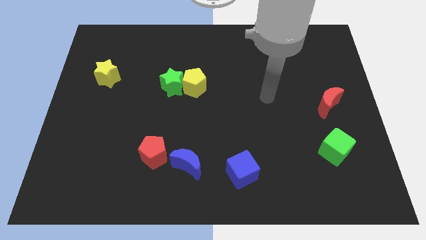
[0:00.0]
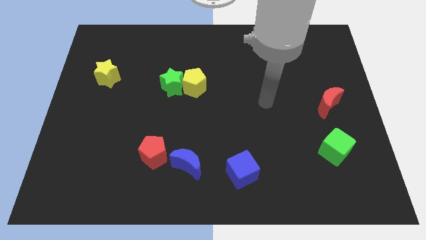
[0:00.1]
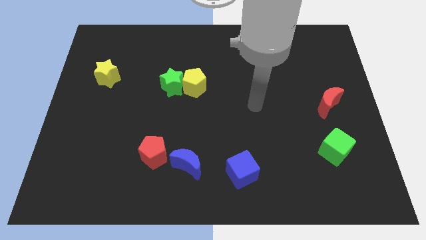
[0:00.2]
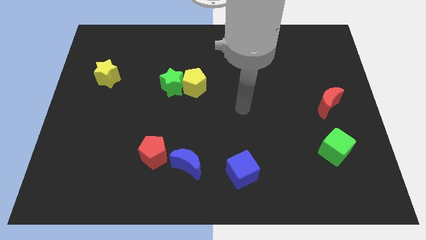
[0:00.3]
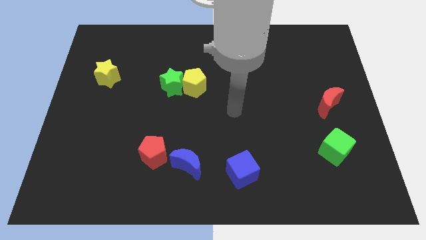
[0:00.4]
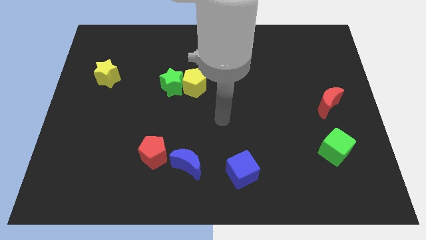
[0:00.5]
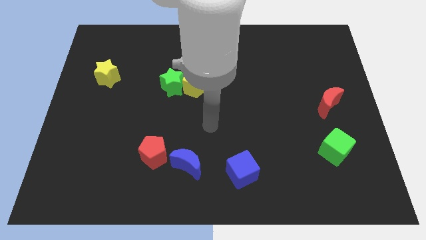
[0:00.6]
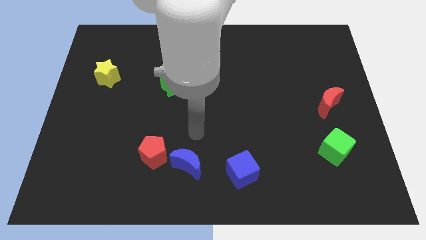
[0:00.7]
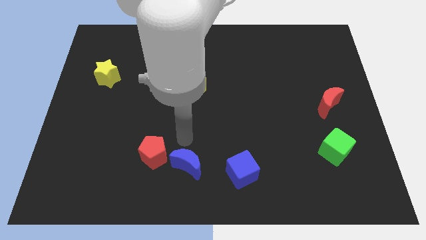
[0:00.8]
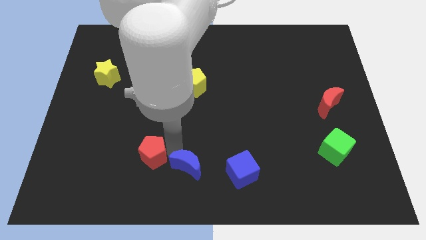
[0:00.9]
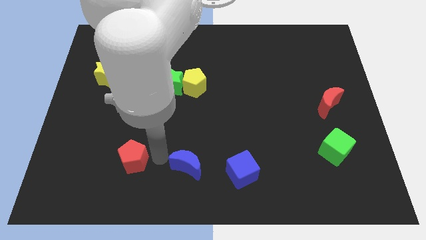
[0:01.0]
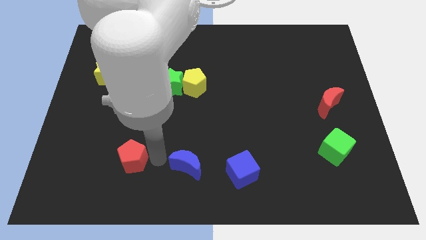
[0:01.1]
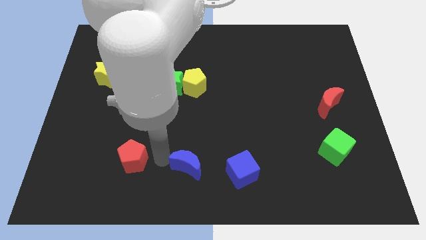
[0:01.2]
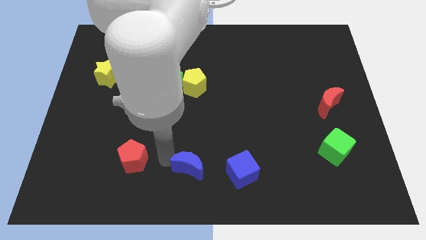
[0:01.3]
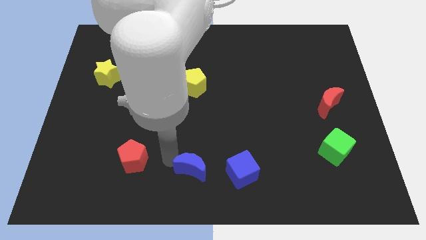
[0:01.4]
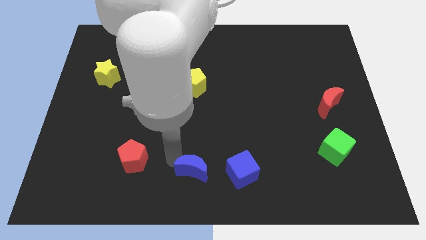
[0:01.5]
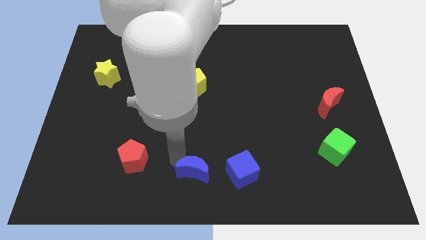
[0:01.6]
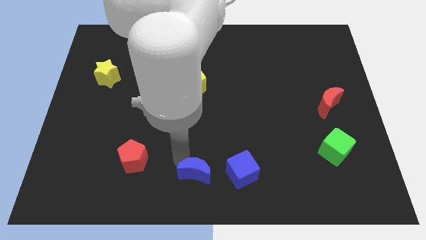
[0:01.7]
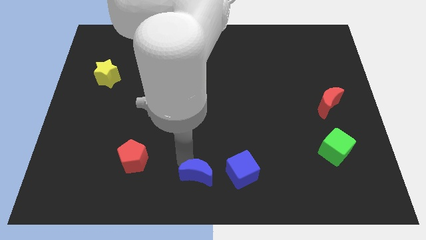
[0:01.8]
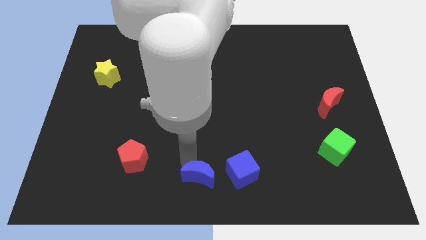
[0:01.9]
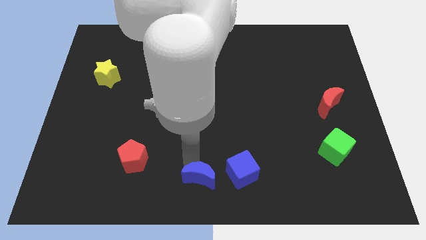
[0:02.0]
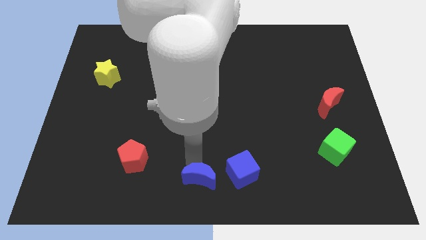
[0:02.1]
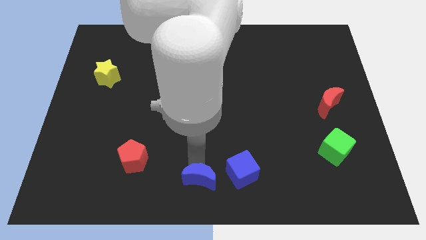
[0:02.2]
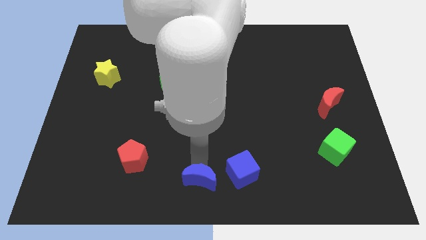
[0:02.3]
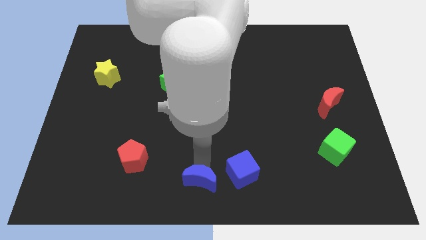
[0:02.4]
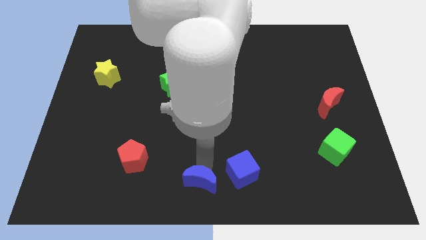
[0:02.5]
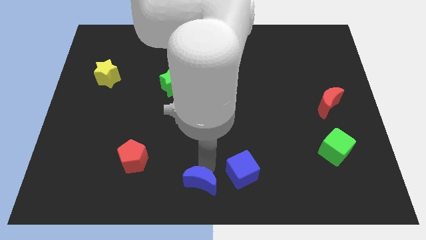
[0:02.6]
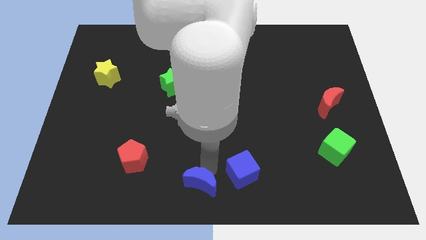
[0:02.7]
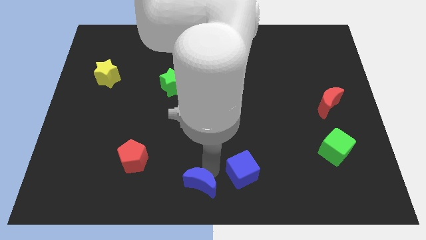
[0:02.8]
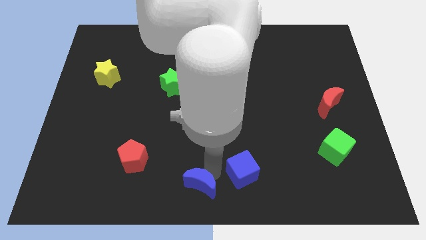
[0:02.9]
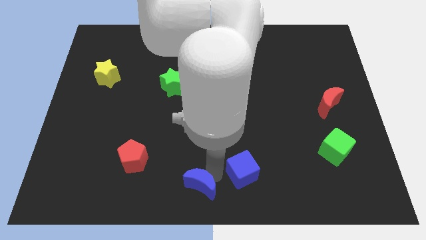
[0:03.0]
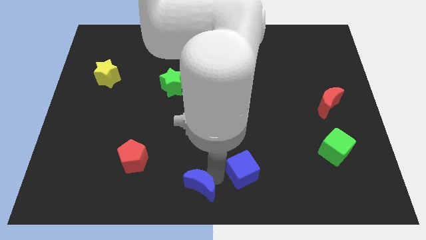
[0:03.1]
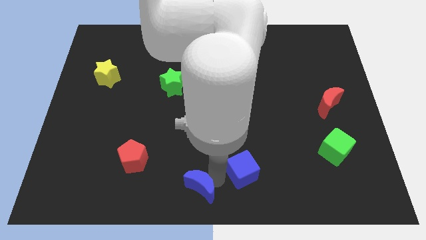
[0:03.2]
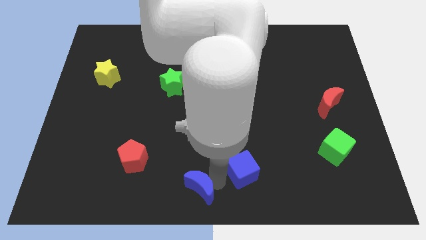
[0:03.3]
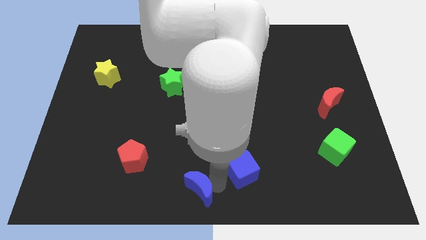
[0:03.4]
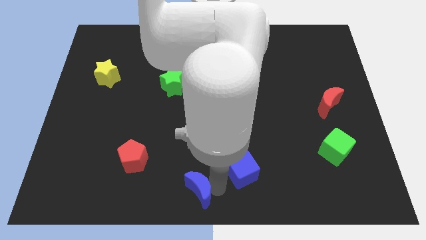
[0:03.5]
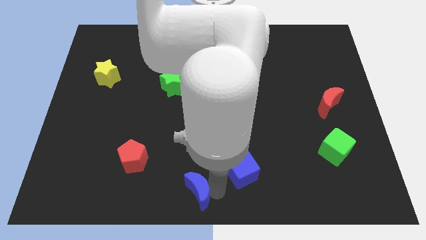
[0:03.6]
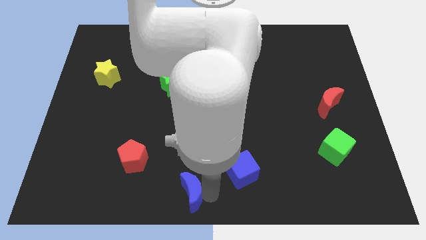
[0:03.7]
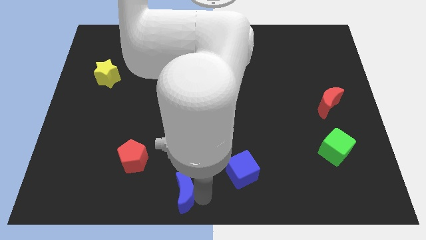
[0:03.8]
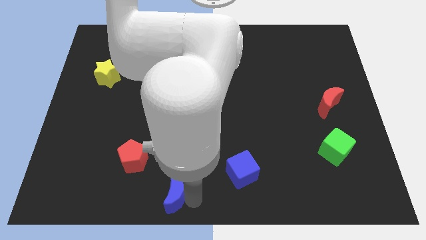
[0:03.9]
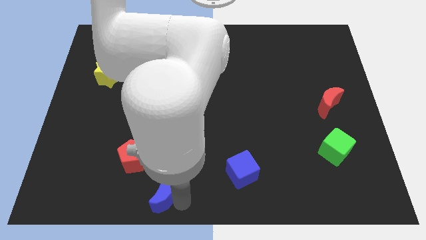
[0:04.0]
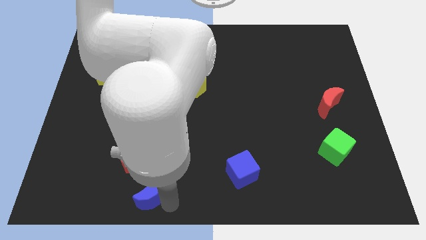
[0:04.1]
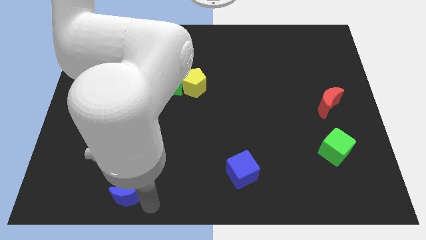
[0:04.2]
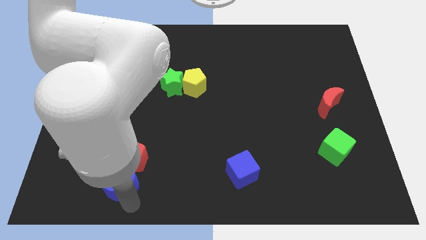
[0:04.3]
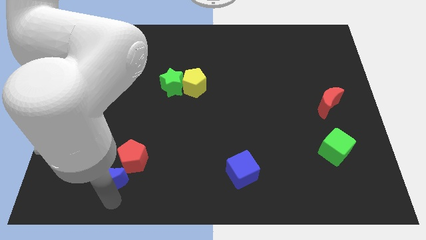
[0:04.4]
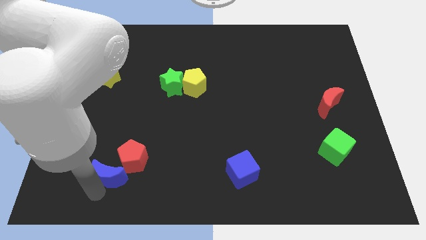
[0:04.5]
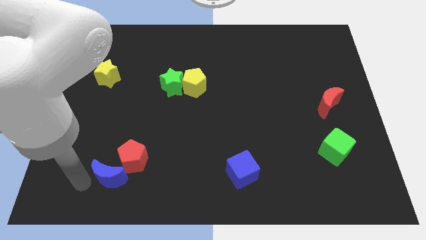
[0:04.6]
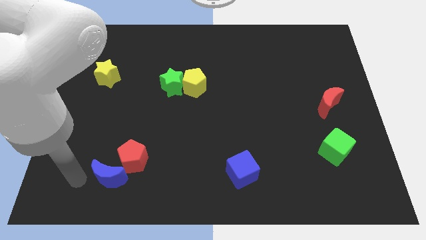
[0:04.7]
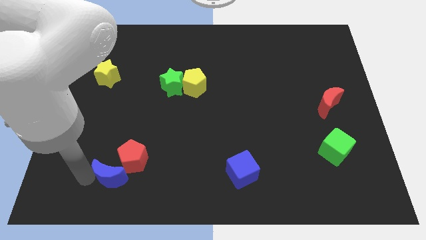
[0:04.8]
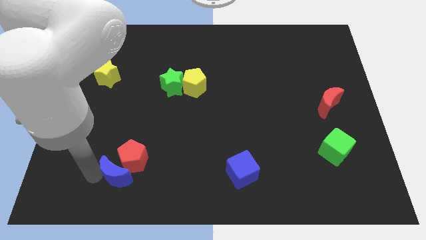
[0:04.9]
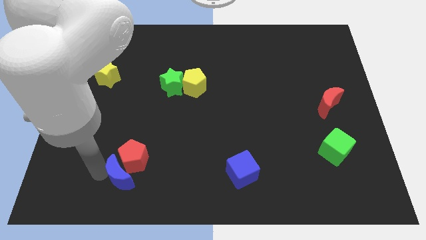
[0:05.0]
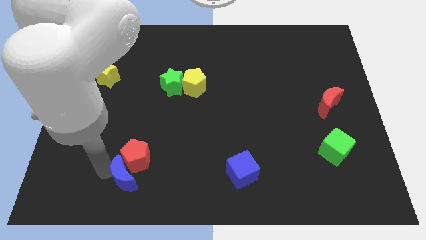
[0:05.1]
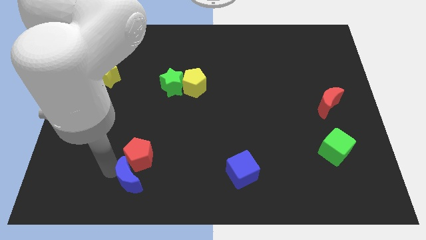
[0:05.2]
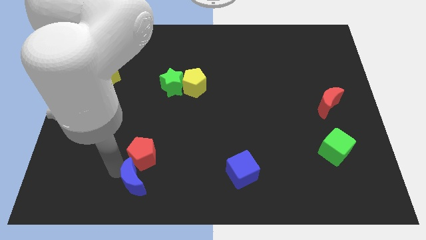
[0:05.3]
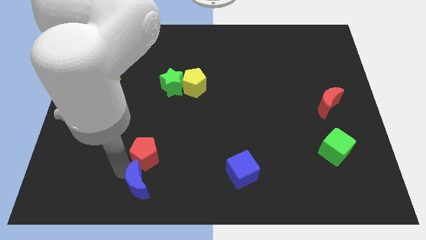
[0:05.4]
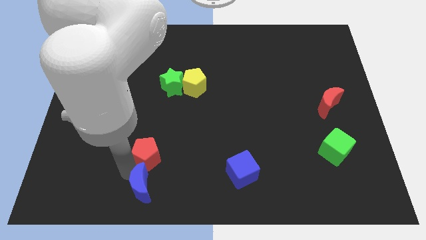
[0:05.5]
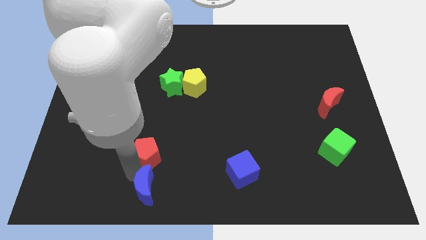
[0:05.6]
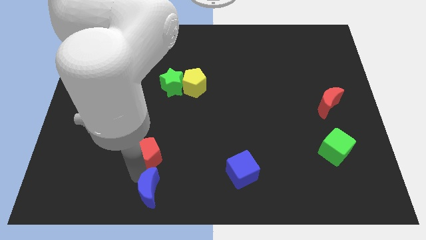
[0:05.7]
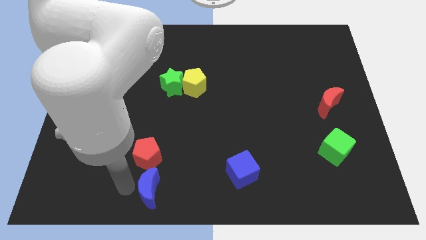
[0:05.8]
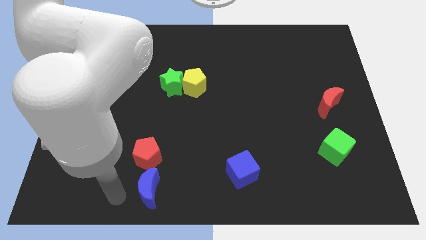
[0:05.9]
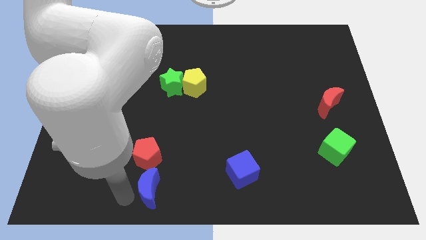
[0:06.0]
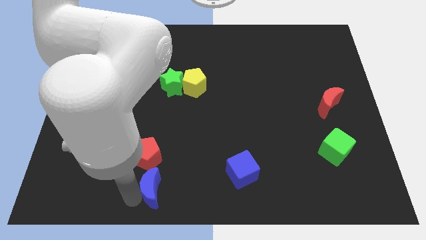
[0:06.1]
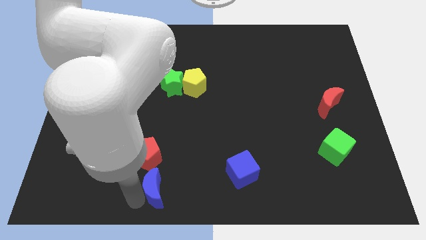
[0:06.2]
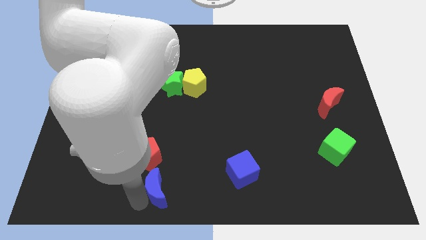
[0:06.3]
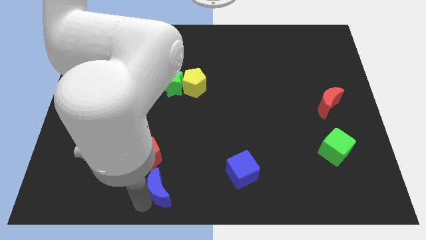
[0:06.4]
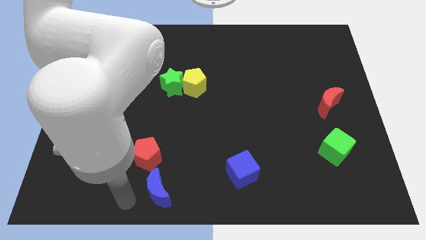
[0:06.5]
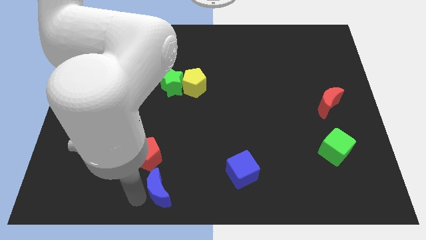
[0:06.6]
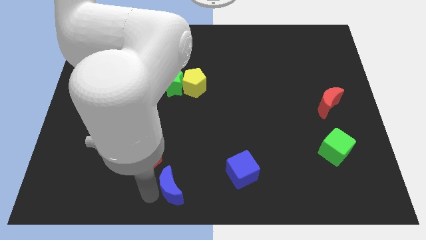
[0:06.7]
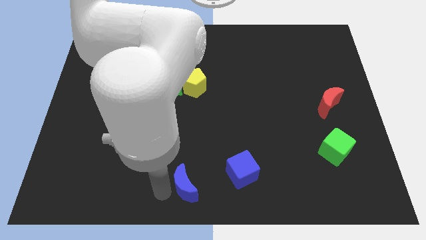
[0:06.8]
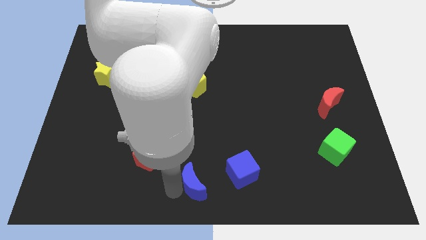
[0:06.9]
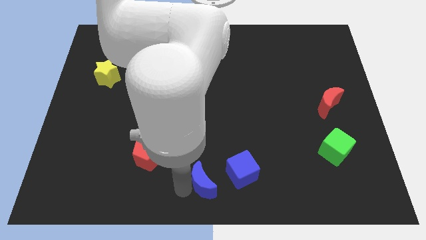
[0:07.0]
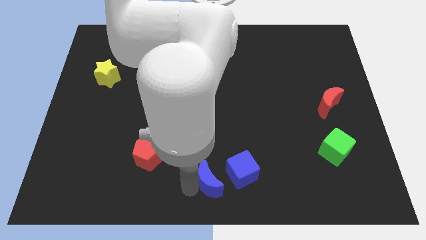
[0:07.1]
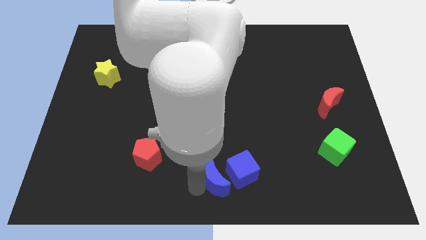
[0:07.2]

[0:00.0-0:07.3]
move the blue moon towards the blue cube

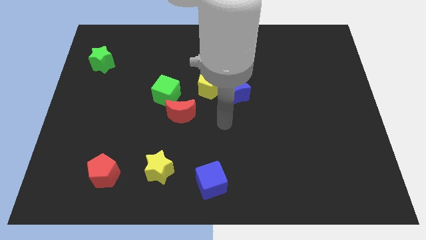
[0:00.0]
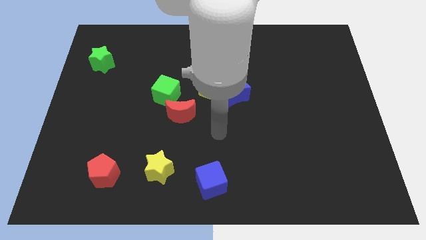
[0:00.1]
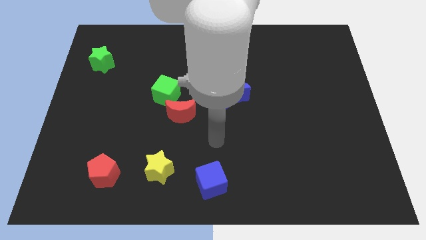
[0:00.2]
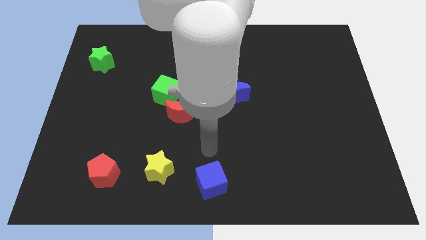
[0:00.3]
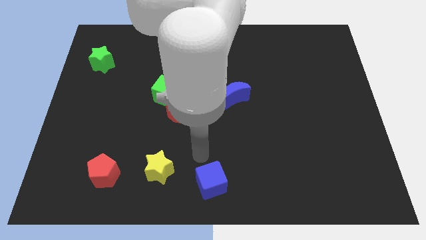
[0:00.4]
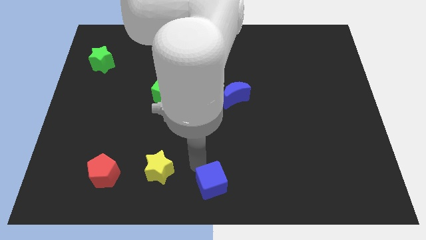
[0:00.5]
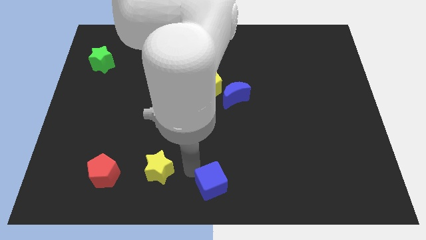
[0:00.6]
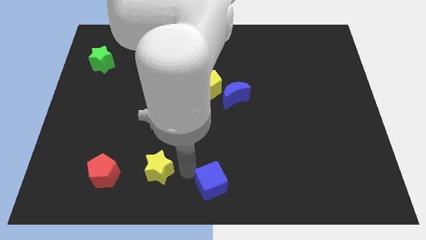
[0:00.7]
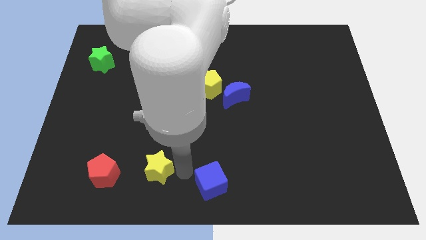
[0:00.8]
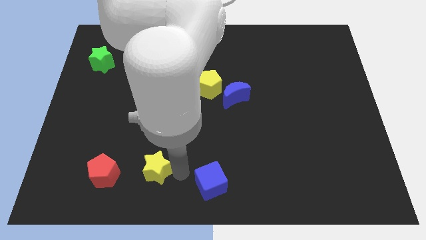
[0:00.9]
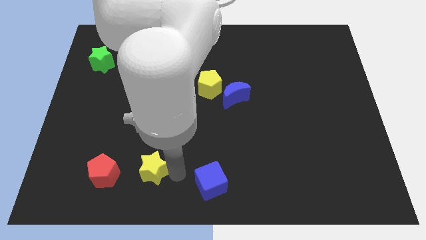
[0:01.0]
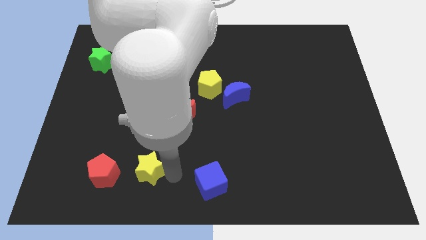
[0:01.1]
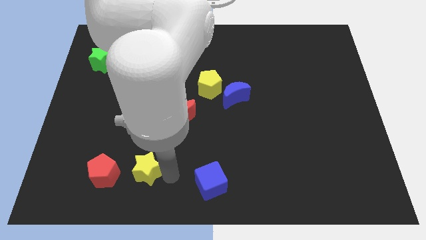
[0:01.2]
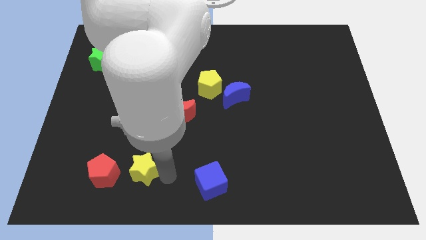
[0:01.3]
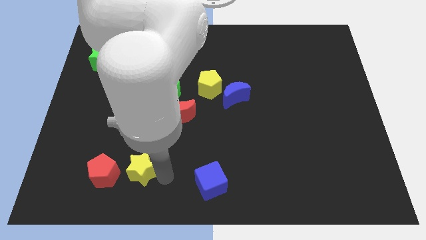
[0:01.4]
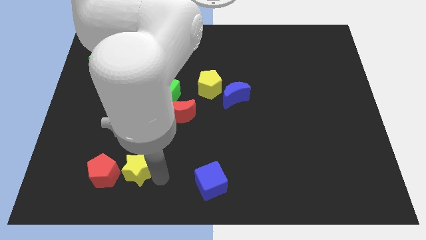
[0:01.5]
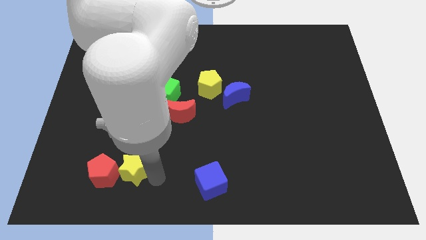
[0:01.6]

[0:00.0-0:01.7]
slide the yellow star close to the red pentagon
